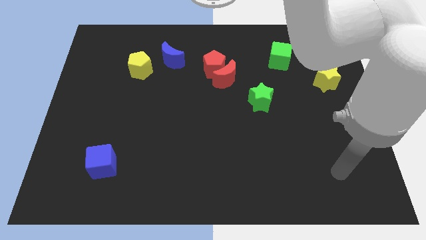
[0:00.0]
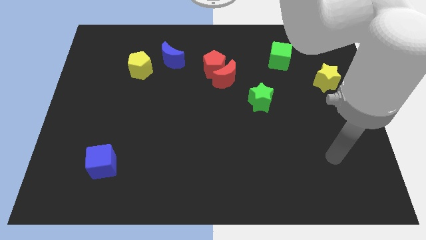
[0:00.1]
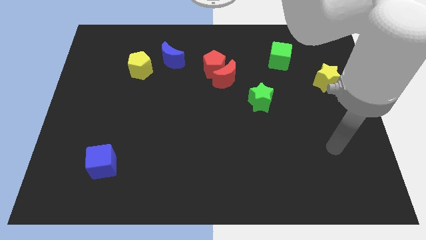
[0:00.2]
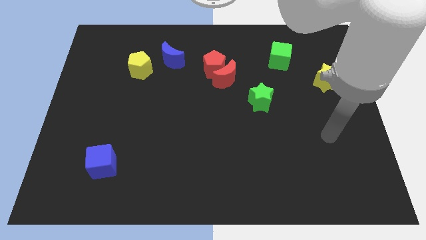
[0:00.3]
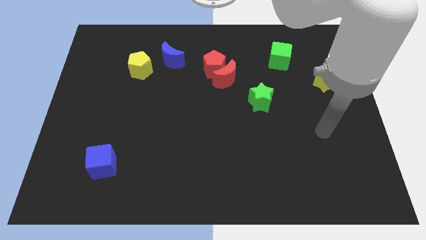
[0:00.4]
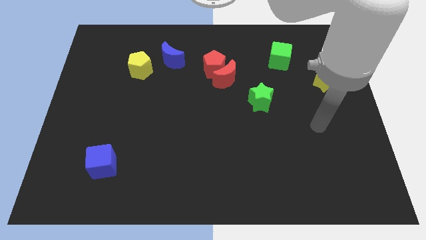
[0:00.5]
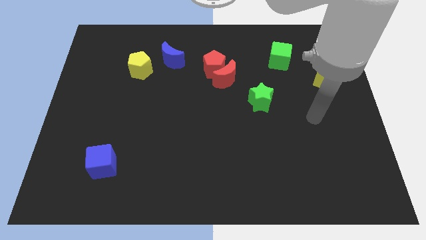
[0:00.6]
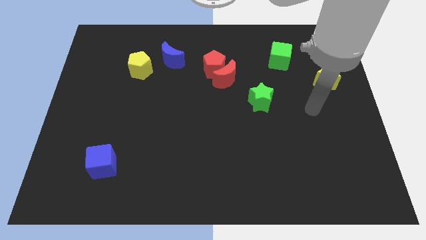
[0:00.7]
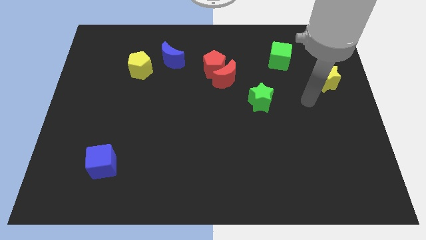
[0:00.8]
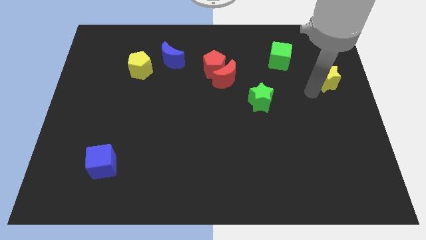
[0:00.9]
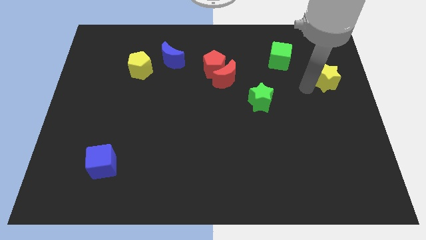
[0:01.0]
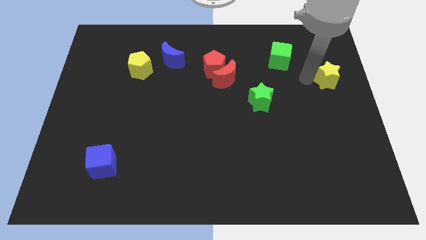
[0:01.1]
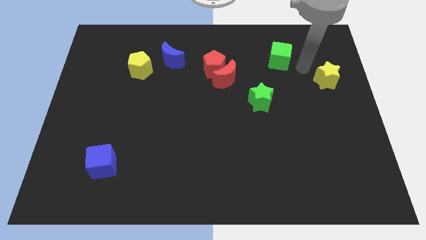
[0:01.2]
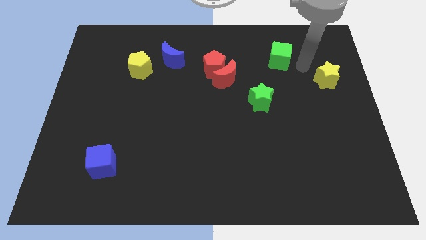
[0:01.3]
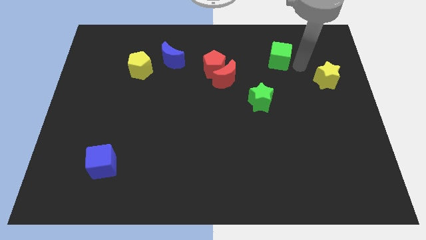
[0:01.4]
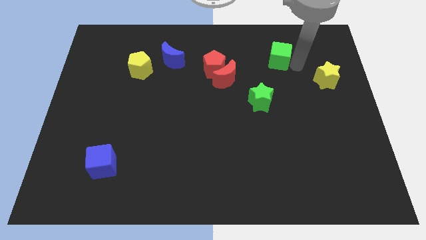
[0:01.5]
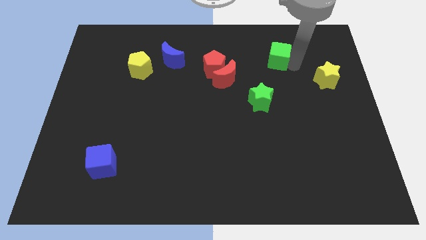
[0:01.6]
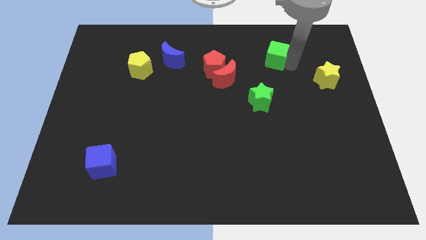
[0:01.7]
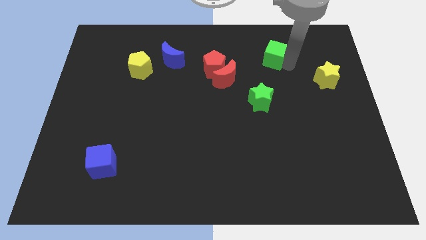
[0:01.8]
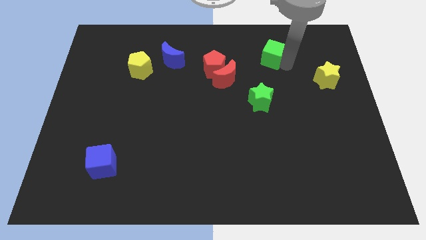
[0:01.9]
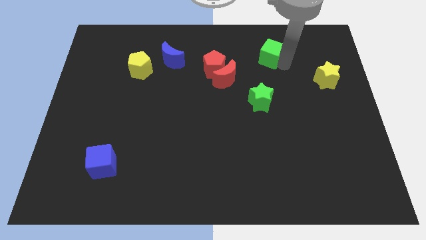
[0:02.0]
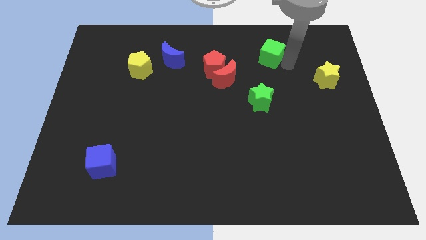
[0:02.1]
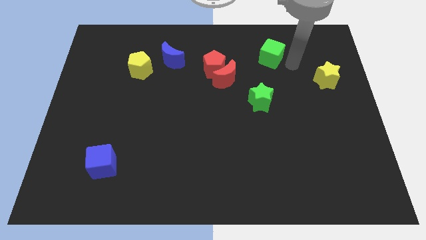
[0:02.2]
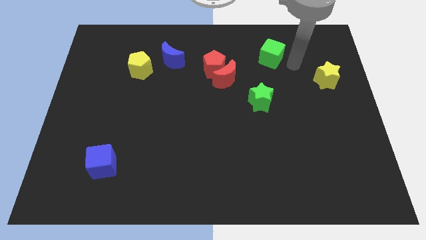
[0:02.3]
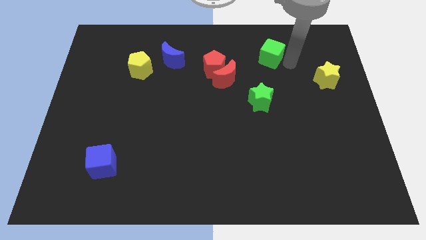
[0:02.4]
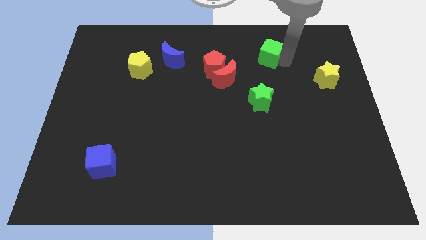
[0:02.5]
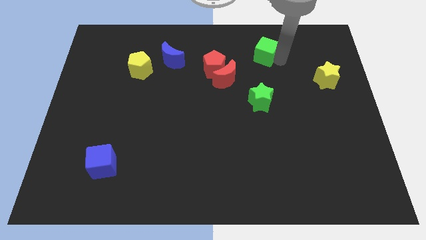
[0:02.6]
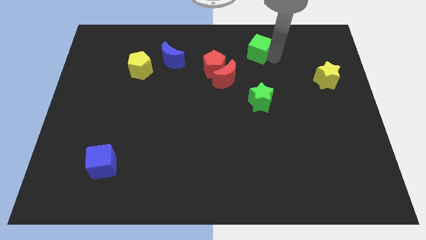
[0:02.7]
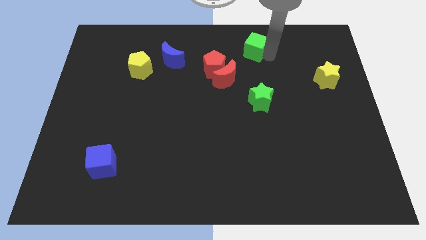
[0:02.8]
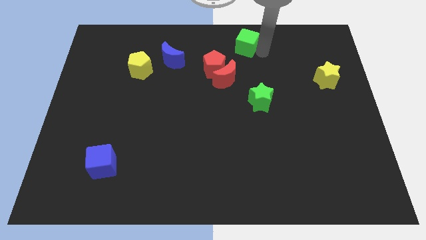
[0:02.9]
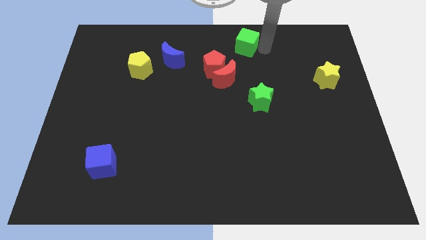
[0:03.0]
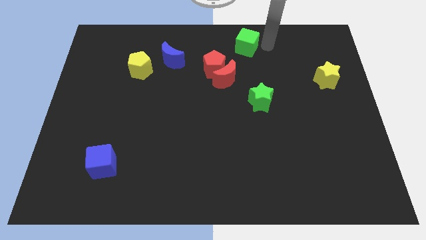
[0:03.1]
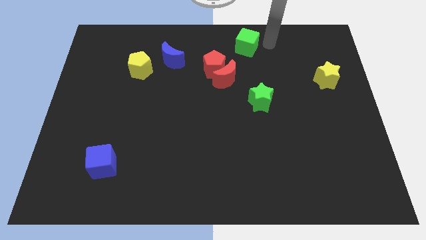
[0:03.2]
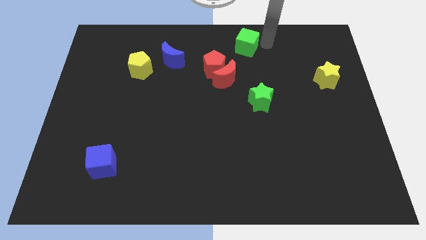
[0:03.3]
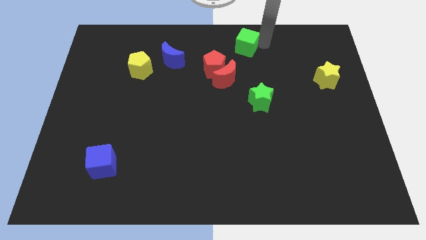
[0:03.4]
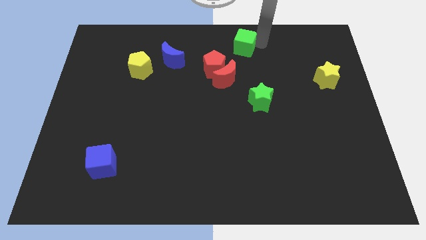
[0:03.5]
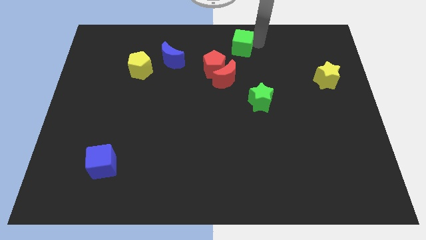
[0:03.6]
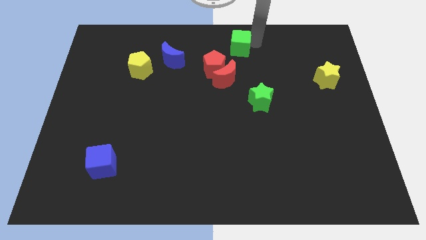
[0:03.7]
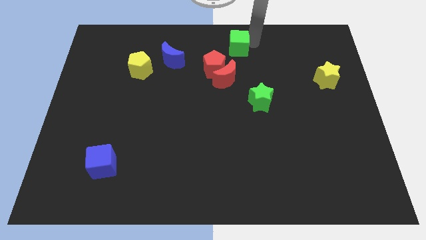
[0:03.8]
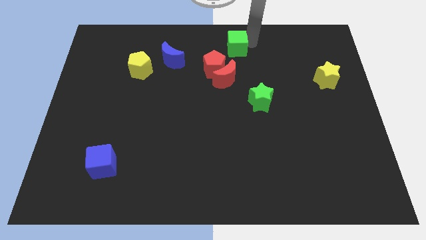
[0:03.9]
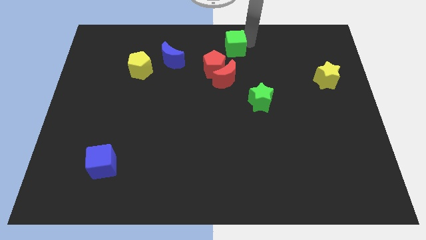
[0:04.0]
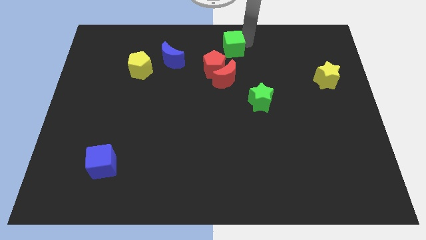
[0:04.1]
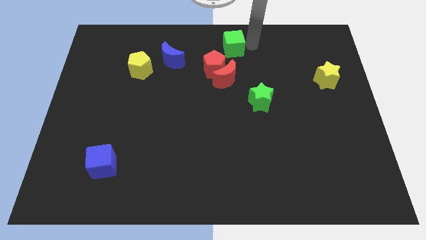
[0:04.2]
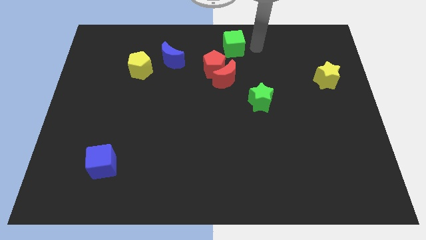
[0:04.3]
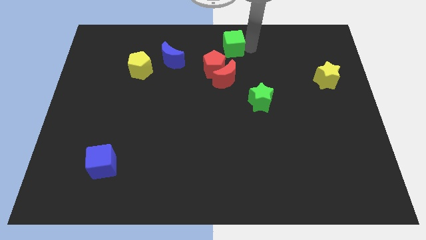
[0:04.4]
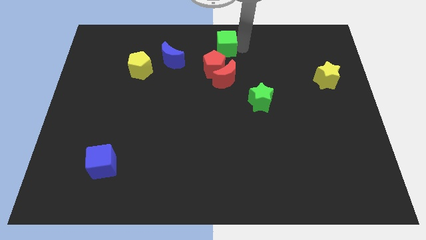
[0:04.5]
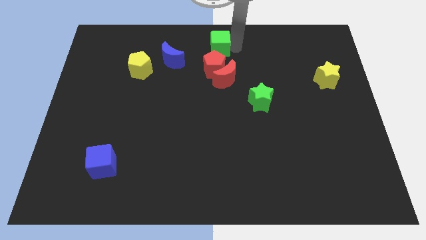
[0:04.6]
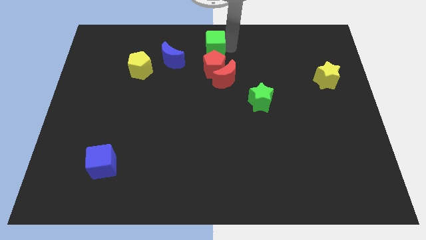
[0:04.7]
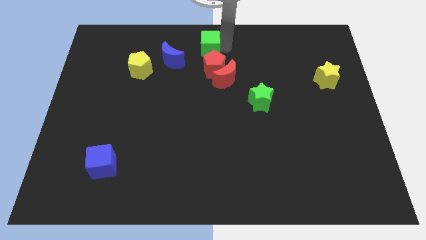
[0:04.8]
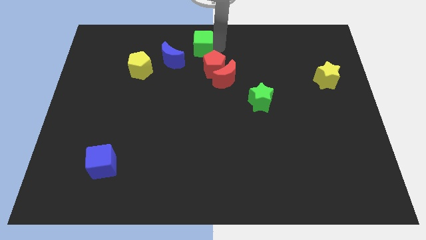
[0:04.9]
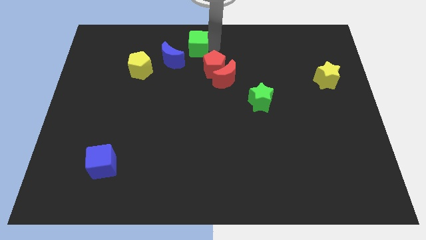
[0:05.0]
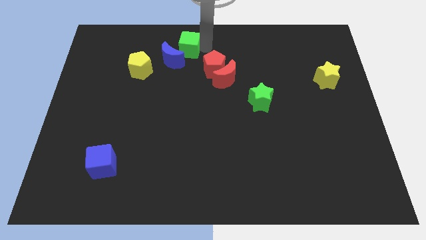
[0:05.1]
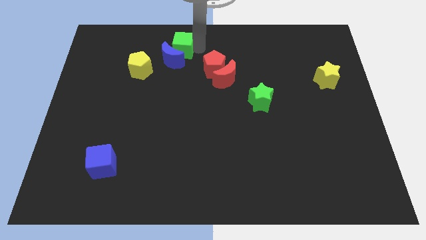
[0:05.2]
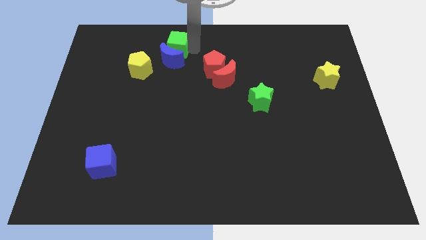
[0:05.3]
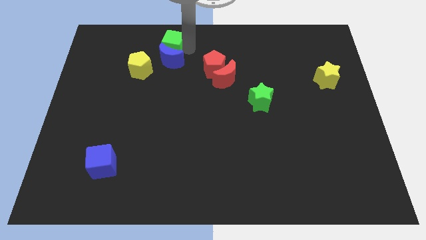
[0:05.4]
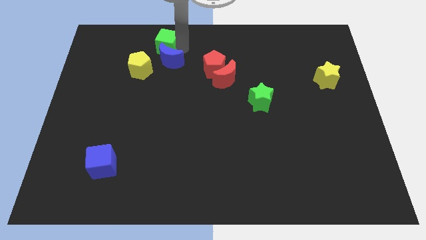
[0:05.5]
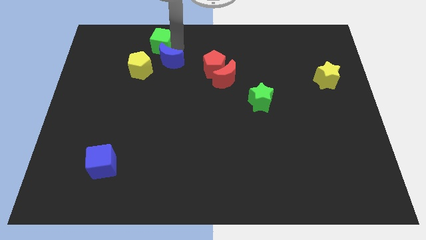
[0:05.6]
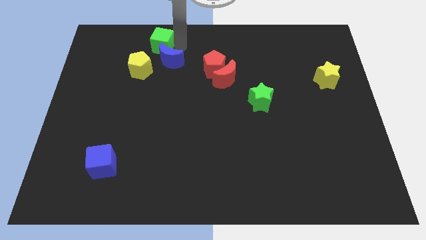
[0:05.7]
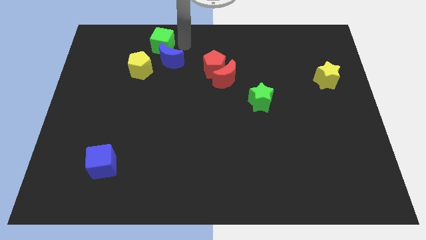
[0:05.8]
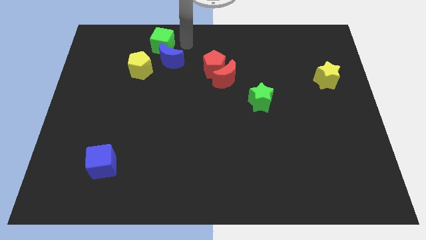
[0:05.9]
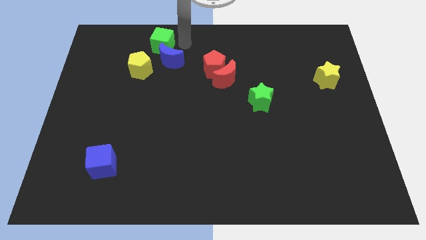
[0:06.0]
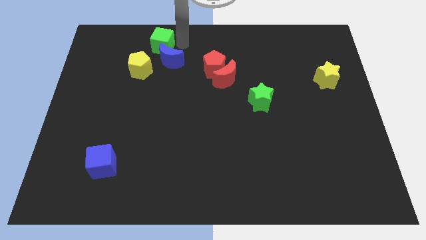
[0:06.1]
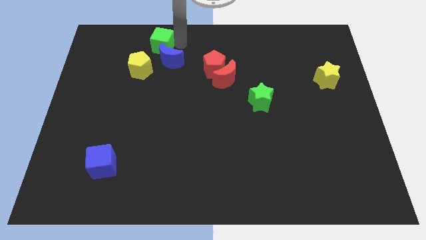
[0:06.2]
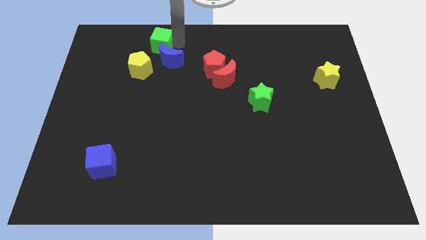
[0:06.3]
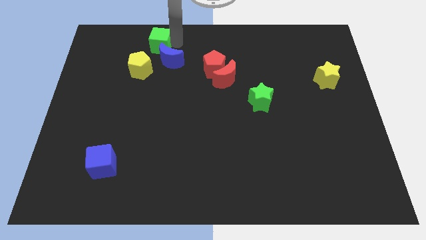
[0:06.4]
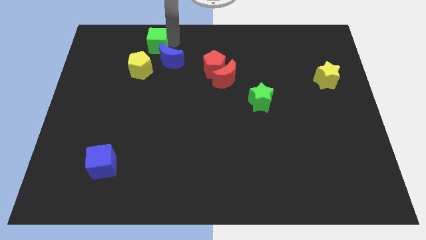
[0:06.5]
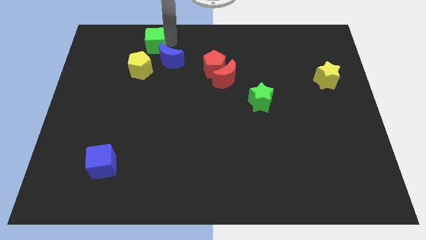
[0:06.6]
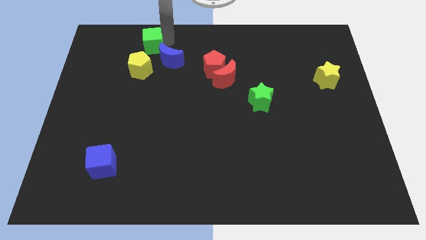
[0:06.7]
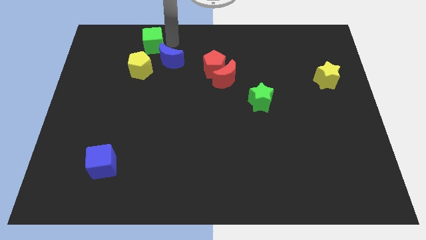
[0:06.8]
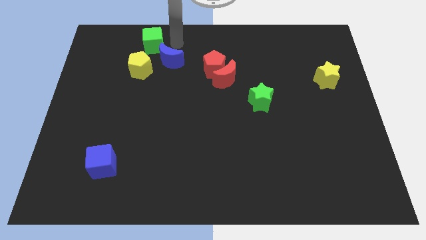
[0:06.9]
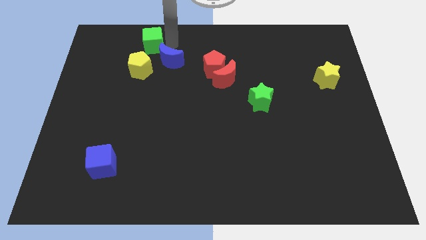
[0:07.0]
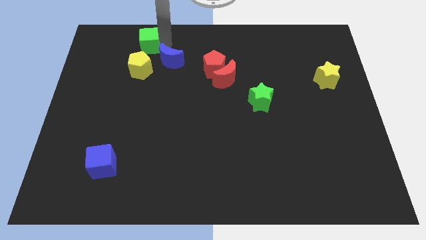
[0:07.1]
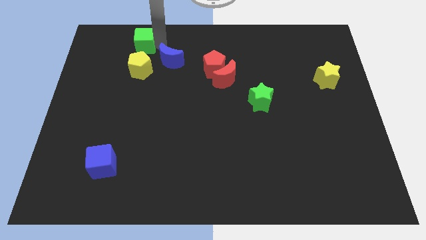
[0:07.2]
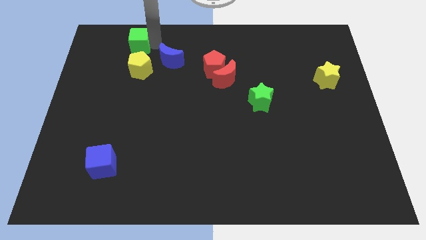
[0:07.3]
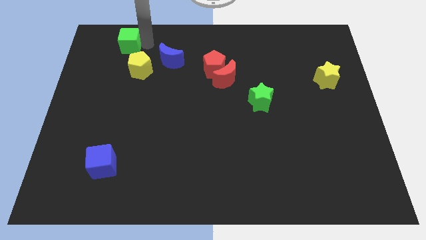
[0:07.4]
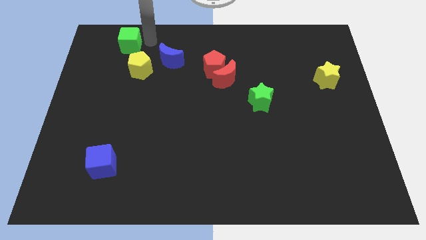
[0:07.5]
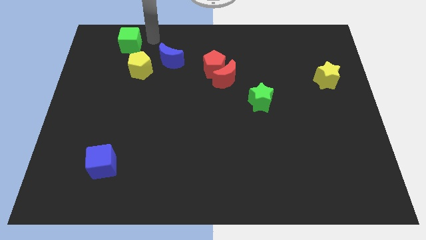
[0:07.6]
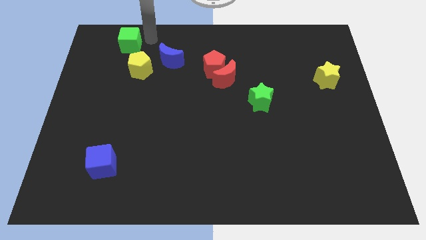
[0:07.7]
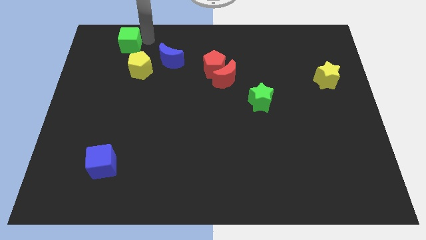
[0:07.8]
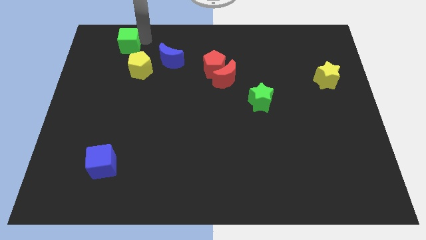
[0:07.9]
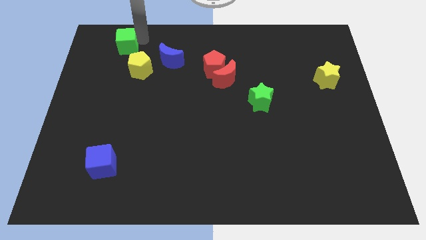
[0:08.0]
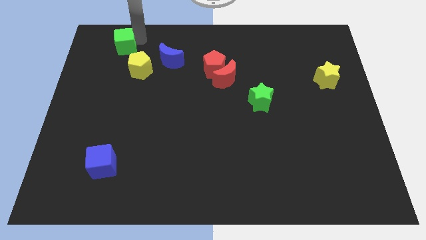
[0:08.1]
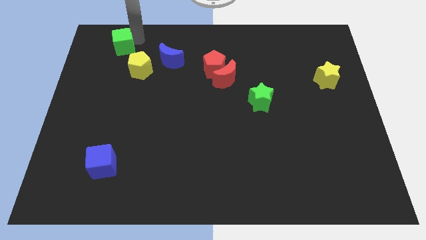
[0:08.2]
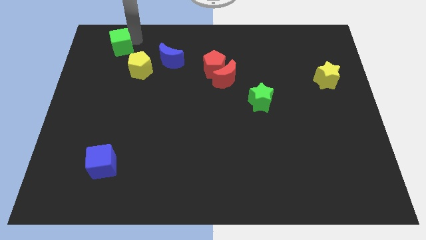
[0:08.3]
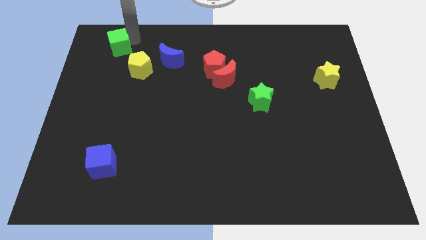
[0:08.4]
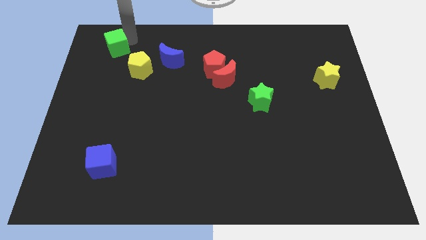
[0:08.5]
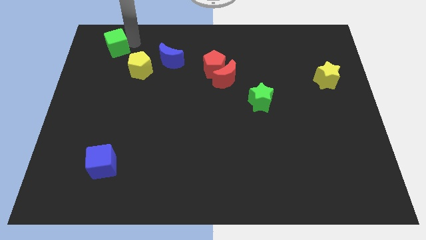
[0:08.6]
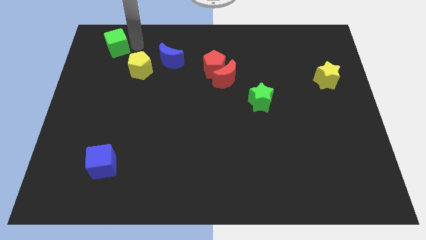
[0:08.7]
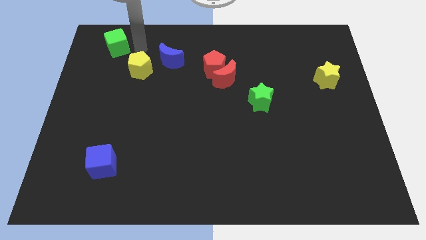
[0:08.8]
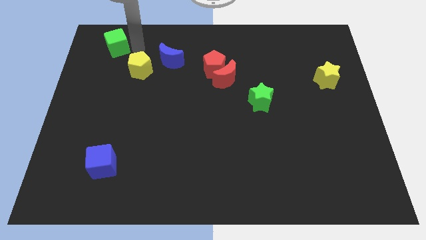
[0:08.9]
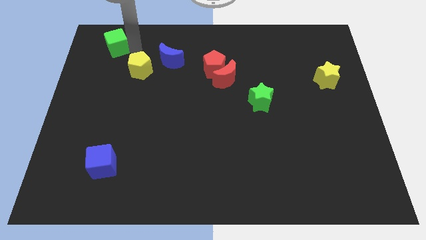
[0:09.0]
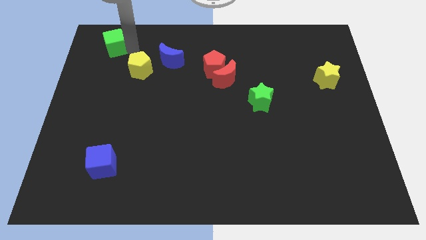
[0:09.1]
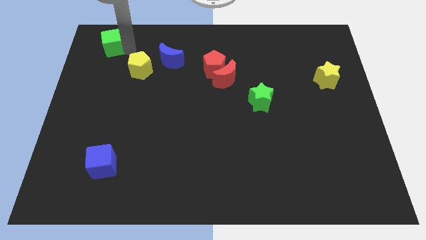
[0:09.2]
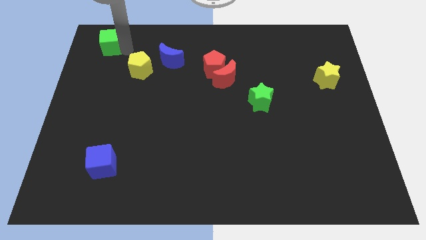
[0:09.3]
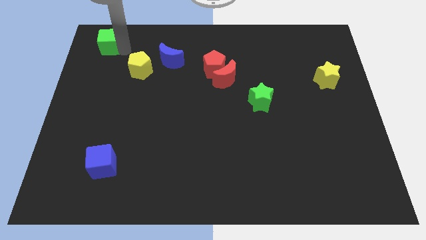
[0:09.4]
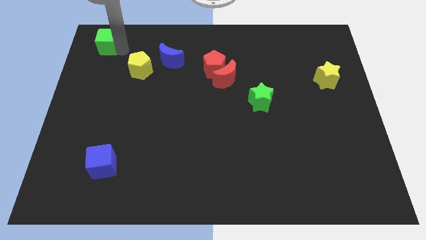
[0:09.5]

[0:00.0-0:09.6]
put the green cube to the top left corner
